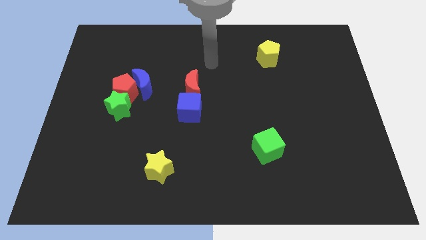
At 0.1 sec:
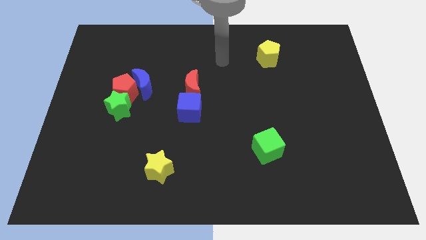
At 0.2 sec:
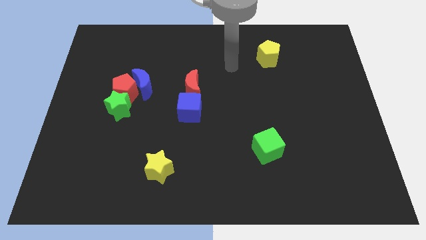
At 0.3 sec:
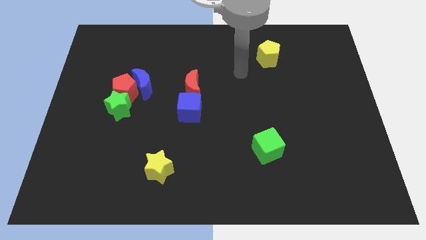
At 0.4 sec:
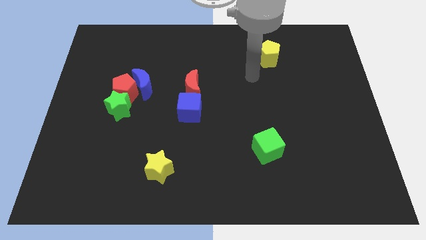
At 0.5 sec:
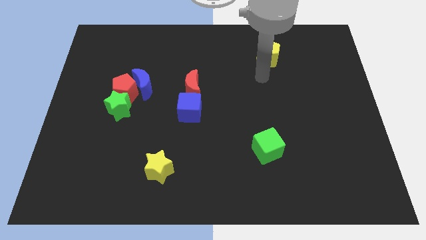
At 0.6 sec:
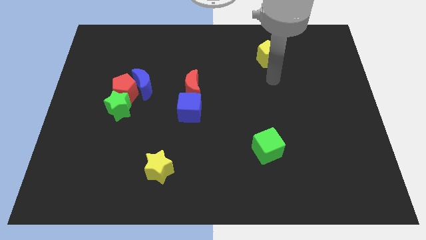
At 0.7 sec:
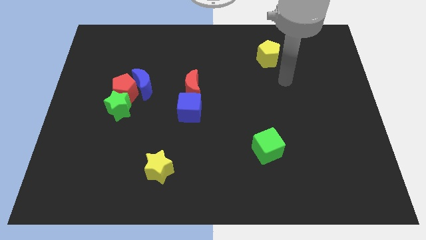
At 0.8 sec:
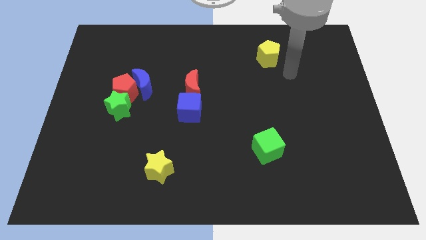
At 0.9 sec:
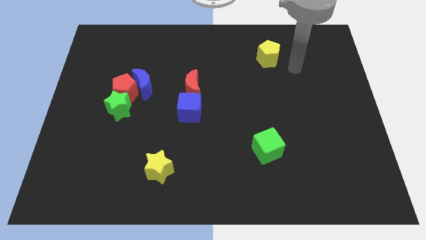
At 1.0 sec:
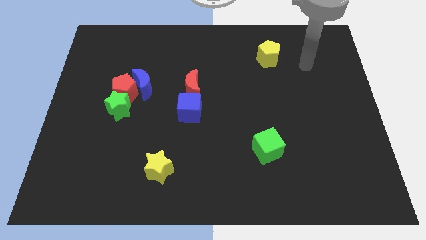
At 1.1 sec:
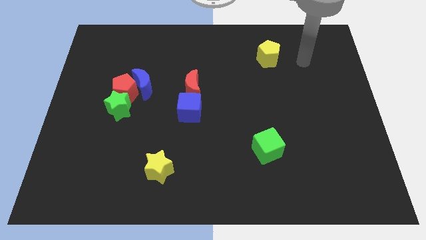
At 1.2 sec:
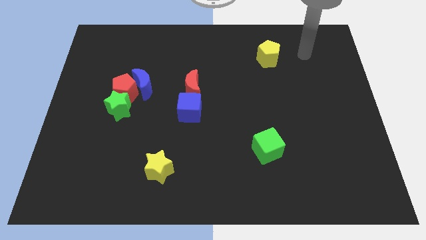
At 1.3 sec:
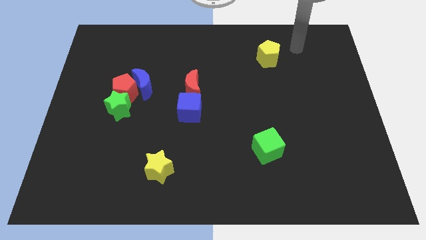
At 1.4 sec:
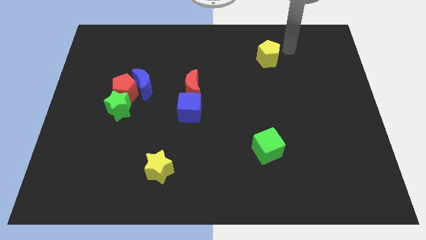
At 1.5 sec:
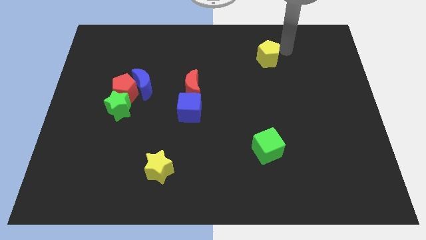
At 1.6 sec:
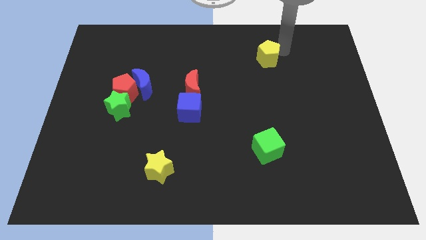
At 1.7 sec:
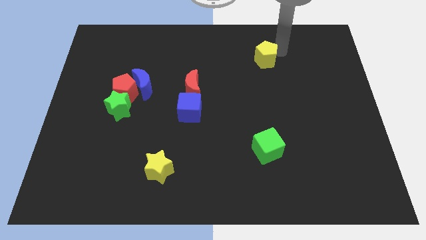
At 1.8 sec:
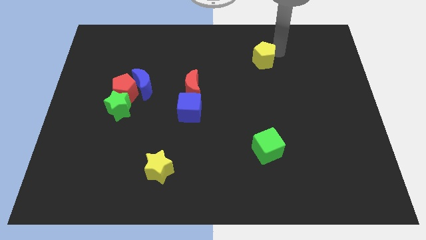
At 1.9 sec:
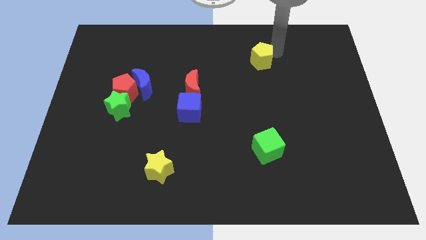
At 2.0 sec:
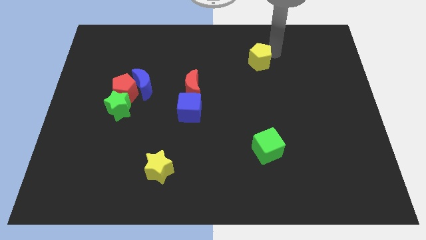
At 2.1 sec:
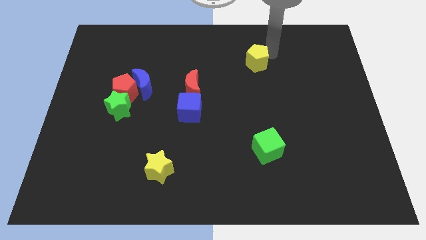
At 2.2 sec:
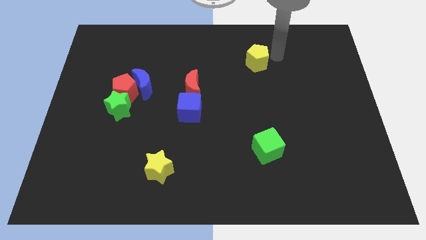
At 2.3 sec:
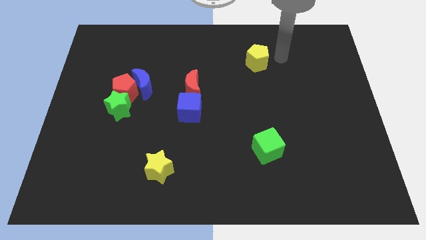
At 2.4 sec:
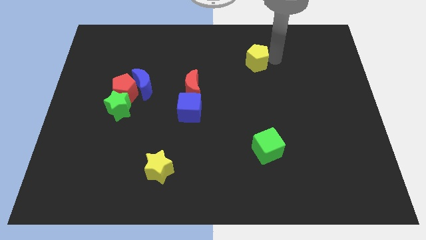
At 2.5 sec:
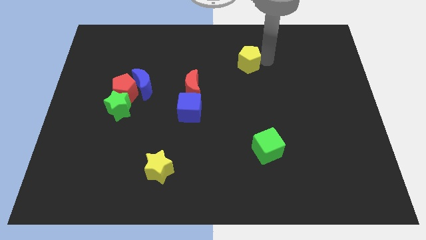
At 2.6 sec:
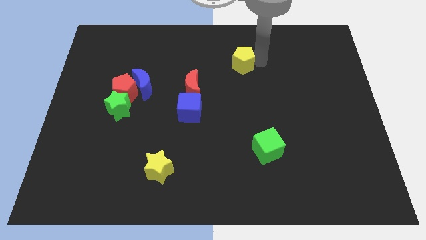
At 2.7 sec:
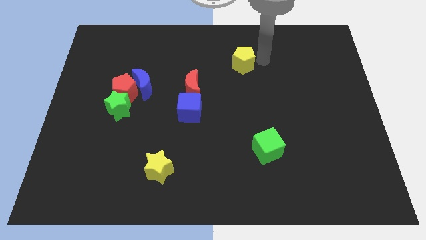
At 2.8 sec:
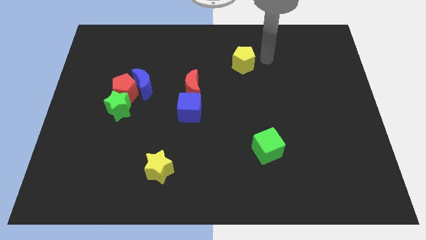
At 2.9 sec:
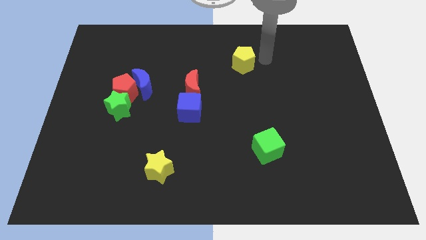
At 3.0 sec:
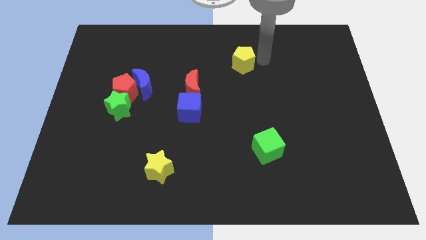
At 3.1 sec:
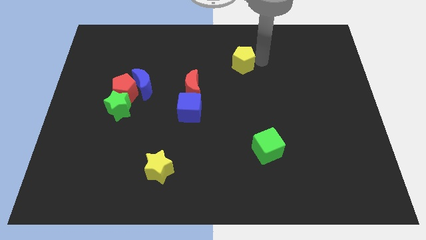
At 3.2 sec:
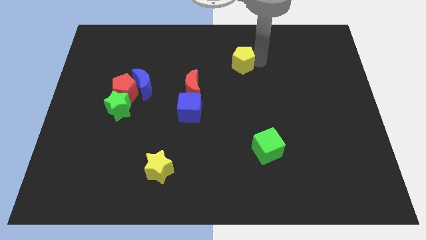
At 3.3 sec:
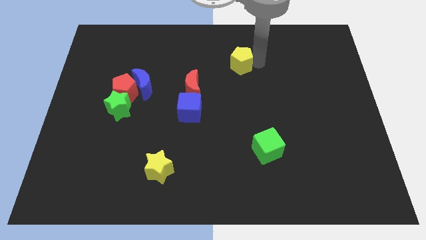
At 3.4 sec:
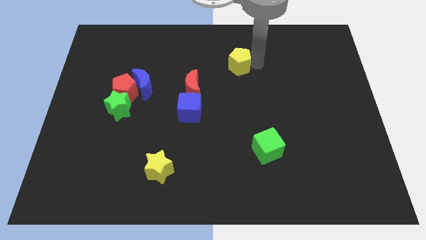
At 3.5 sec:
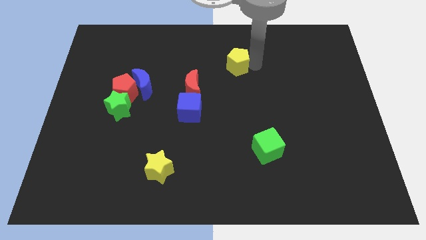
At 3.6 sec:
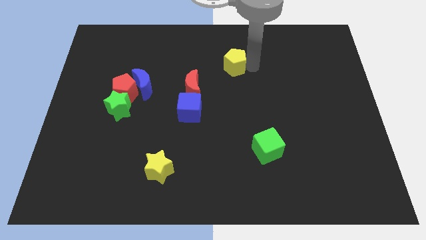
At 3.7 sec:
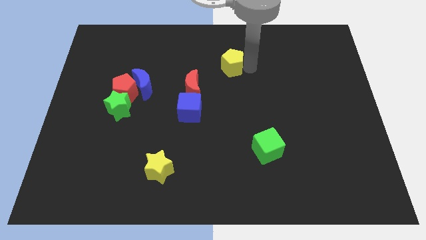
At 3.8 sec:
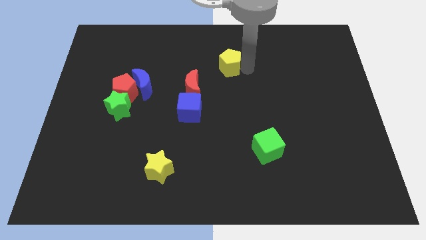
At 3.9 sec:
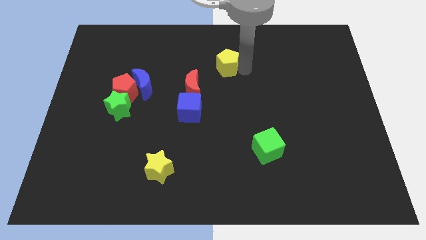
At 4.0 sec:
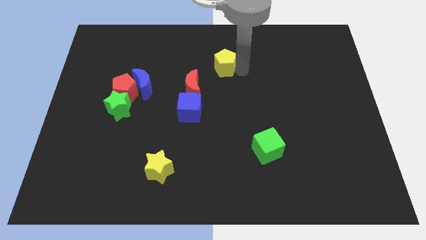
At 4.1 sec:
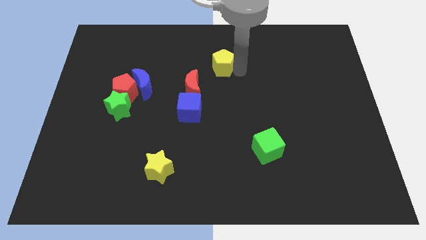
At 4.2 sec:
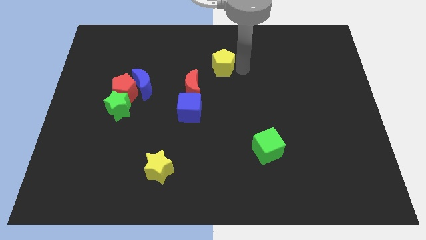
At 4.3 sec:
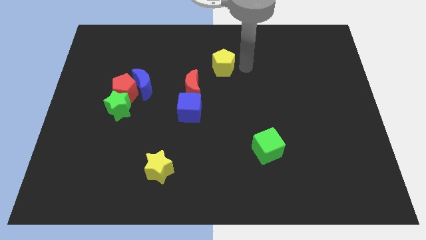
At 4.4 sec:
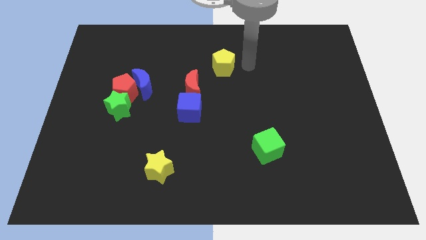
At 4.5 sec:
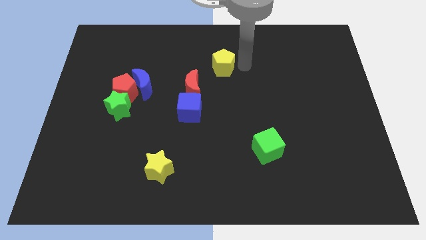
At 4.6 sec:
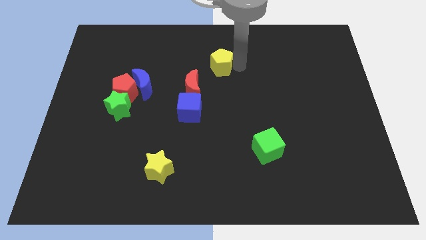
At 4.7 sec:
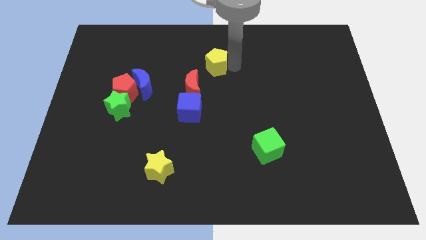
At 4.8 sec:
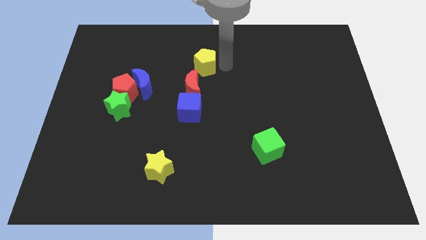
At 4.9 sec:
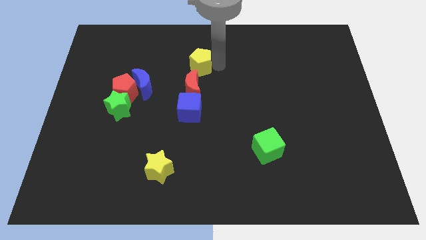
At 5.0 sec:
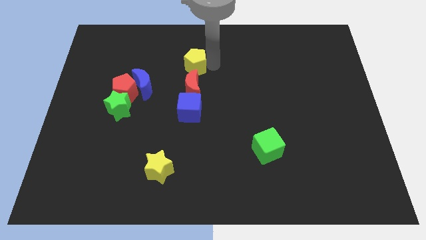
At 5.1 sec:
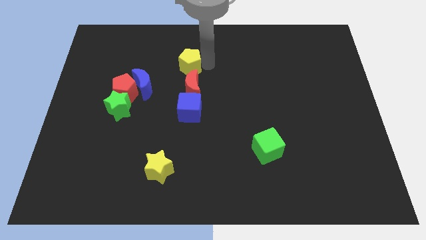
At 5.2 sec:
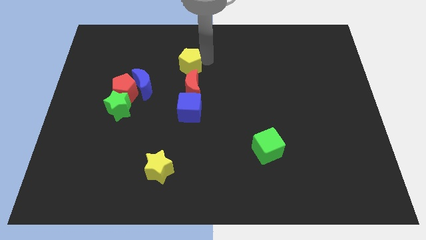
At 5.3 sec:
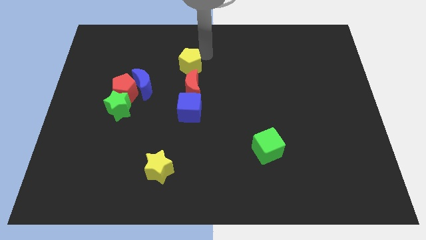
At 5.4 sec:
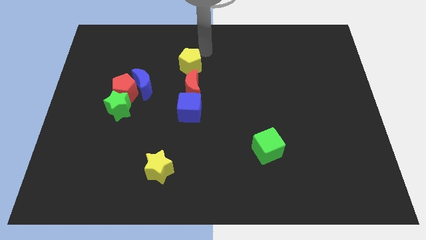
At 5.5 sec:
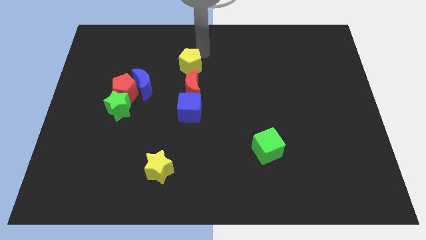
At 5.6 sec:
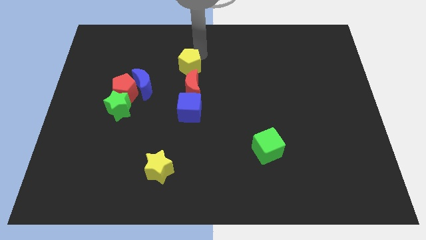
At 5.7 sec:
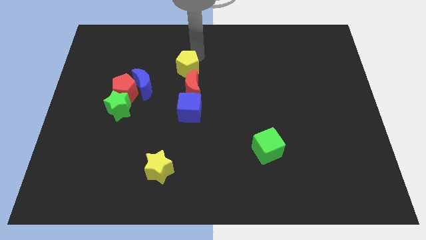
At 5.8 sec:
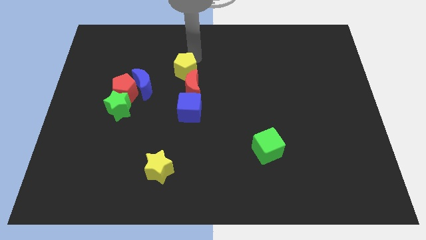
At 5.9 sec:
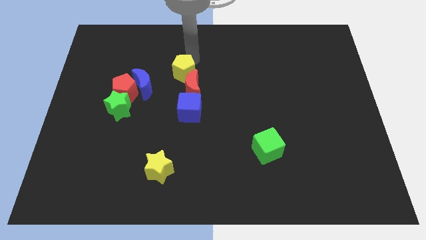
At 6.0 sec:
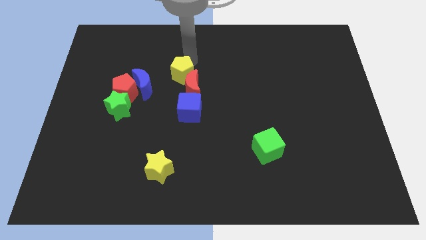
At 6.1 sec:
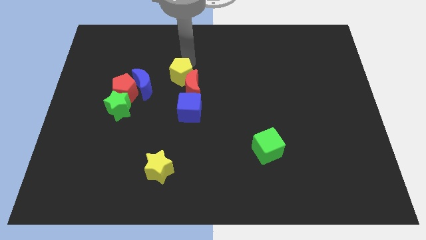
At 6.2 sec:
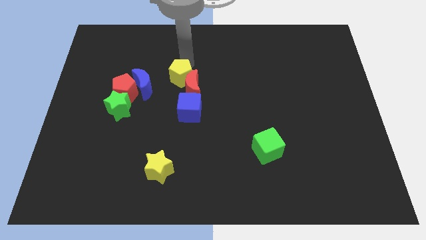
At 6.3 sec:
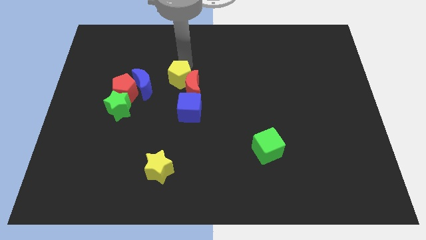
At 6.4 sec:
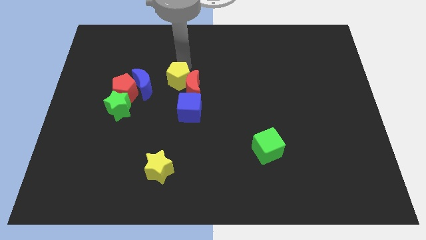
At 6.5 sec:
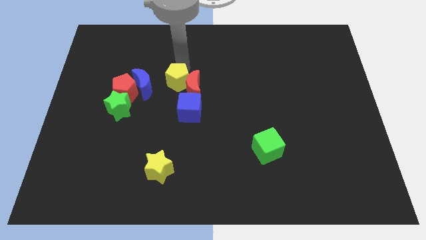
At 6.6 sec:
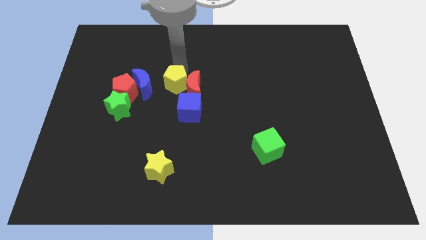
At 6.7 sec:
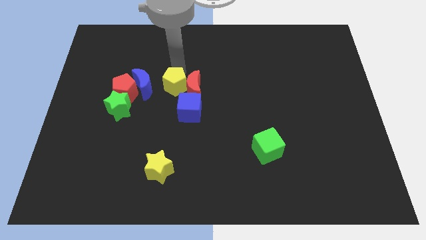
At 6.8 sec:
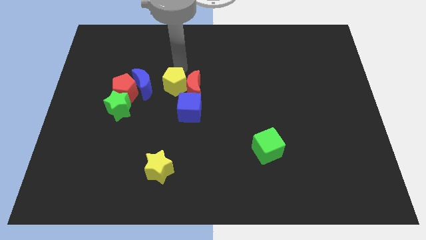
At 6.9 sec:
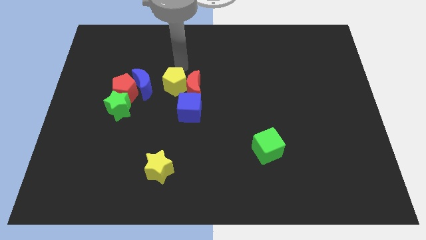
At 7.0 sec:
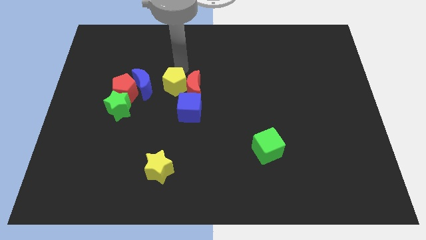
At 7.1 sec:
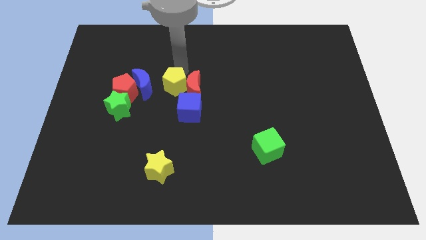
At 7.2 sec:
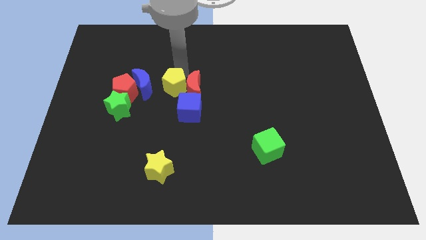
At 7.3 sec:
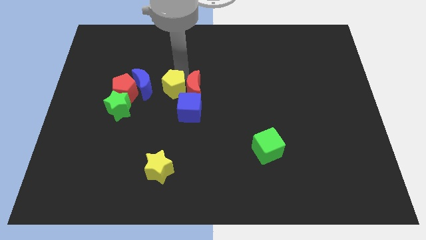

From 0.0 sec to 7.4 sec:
push the yellow pentagon diagonally downwards and to the left

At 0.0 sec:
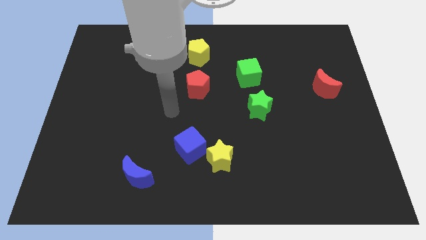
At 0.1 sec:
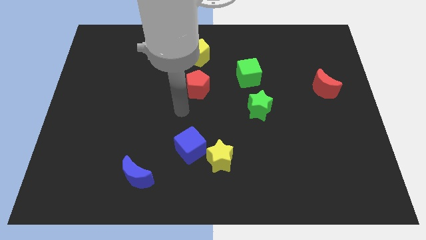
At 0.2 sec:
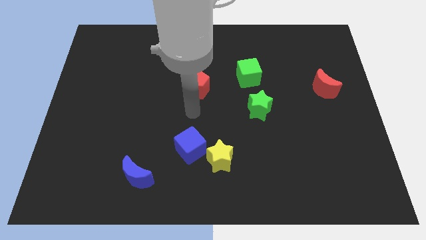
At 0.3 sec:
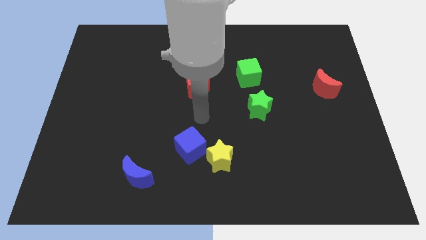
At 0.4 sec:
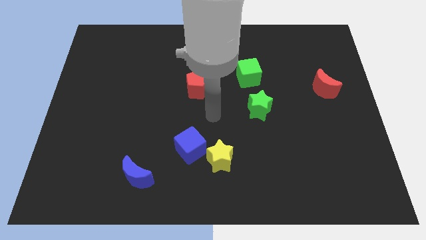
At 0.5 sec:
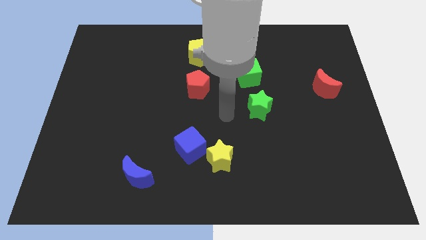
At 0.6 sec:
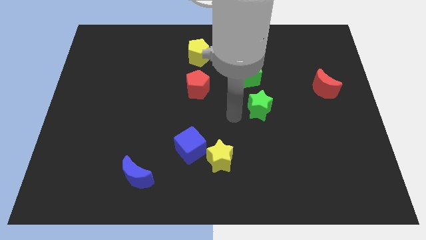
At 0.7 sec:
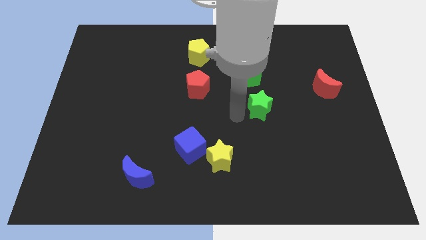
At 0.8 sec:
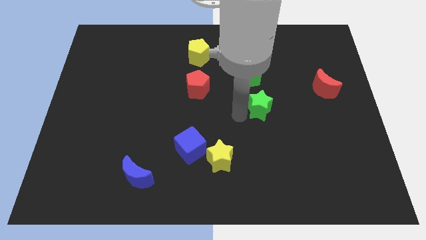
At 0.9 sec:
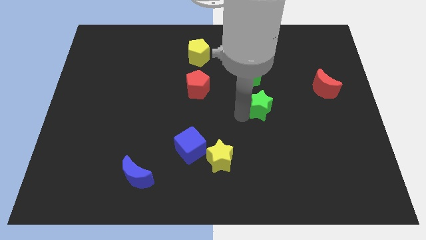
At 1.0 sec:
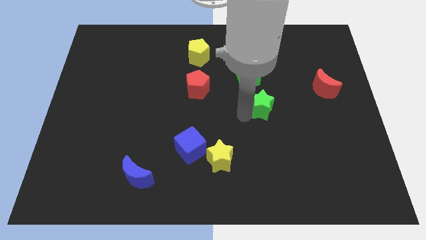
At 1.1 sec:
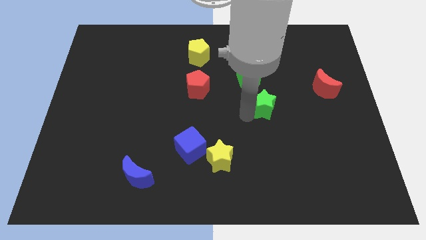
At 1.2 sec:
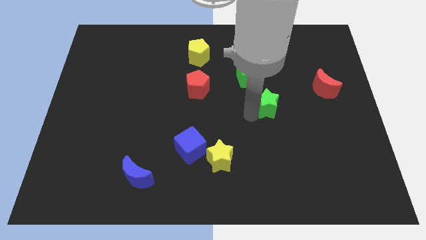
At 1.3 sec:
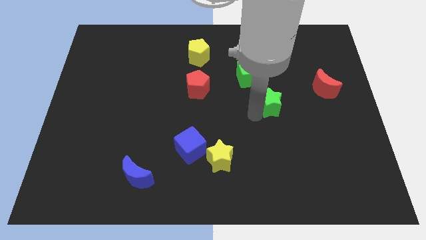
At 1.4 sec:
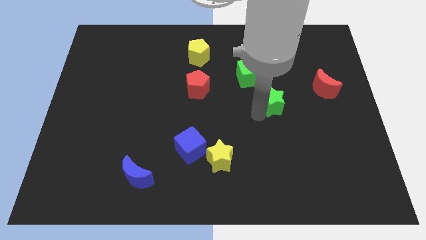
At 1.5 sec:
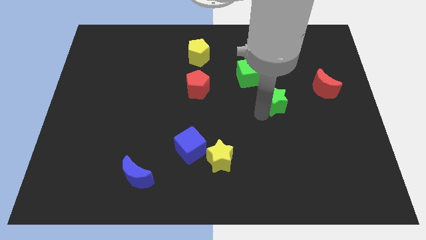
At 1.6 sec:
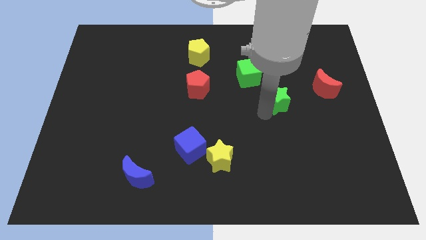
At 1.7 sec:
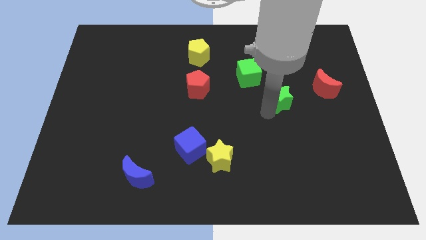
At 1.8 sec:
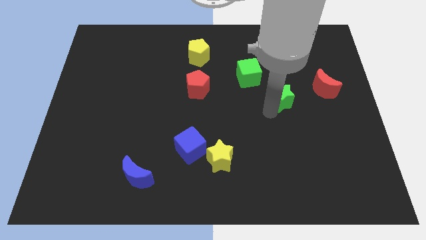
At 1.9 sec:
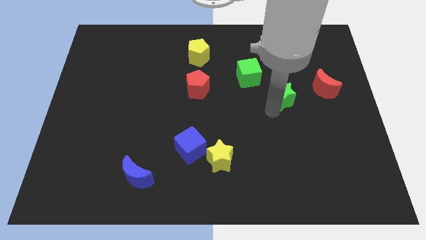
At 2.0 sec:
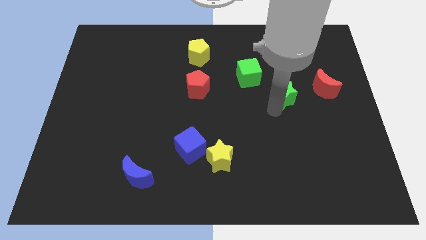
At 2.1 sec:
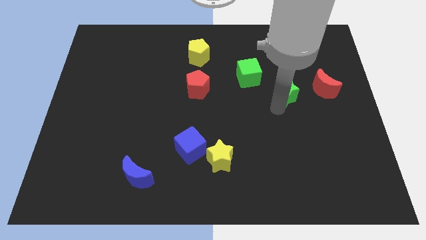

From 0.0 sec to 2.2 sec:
move the green star a little up and to the right diagonally
